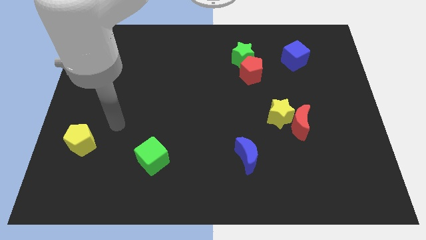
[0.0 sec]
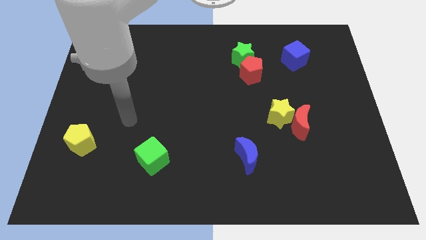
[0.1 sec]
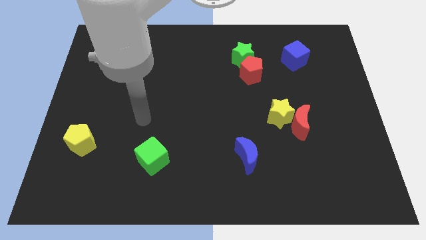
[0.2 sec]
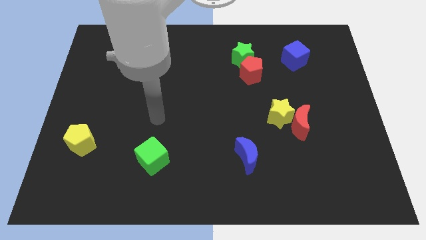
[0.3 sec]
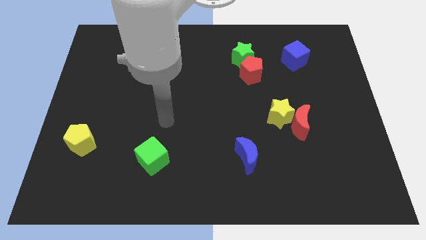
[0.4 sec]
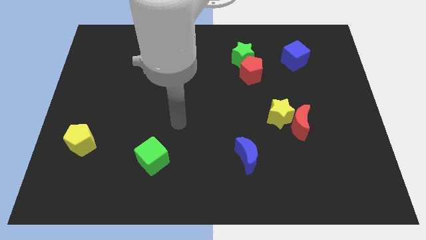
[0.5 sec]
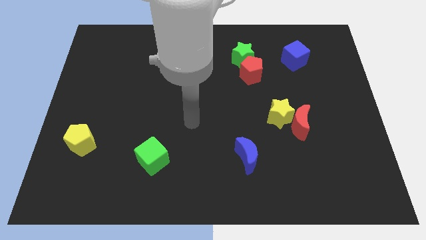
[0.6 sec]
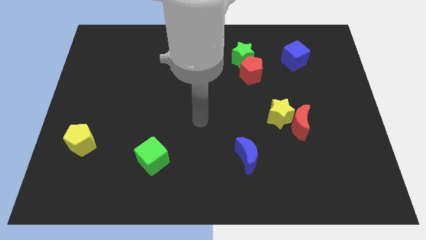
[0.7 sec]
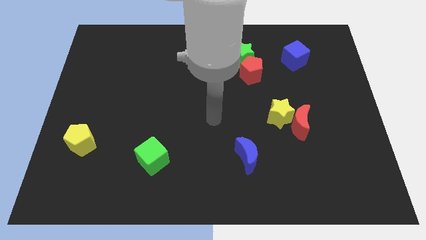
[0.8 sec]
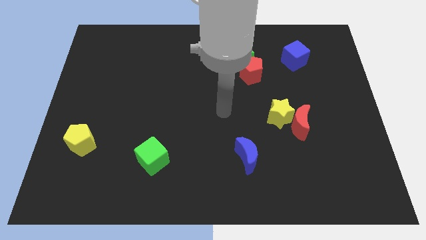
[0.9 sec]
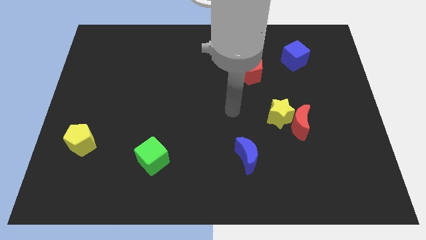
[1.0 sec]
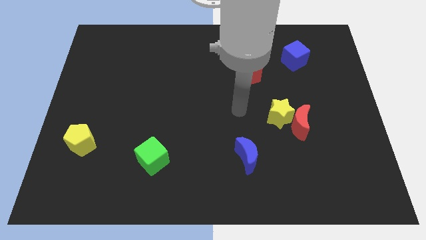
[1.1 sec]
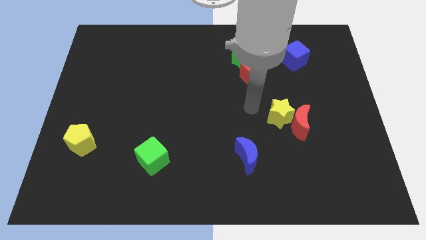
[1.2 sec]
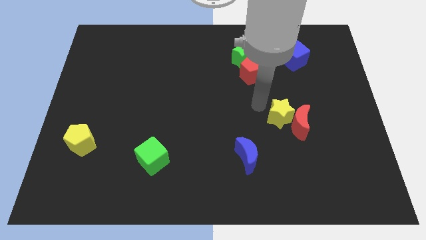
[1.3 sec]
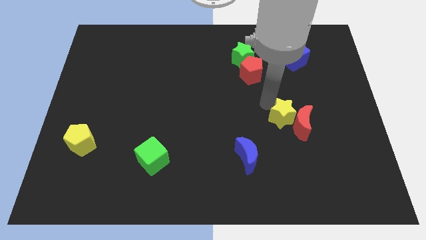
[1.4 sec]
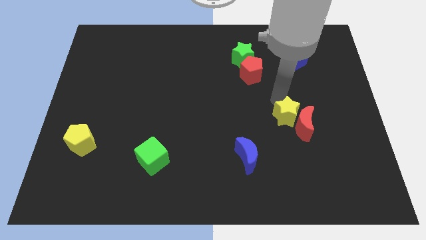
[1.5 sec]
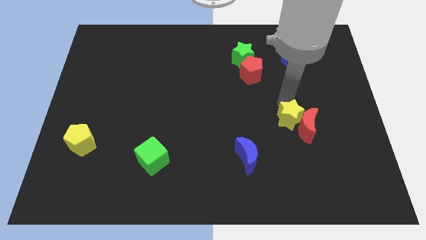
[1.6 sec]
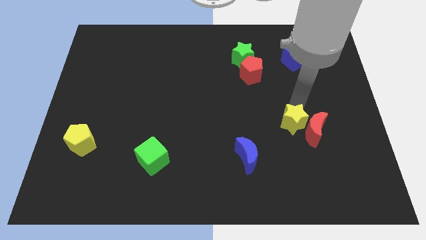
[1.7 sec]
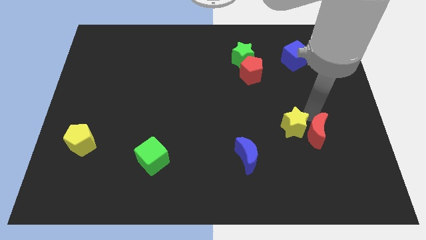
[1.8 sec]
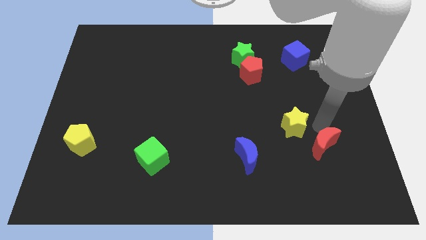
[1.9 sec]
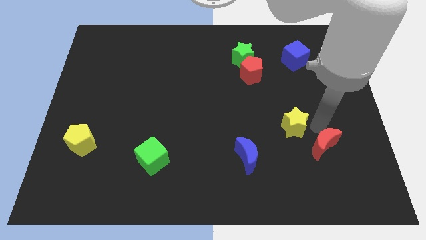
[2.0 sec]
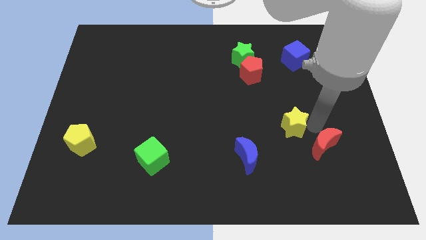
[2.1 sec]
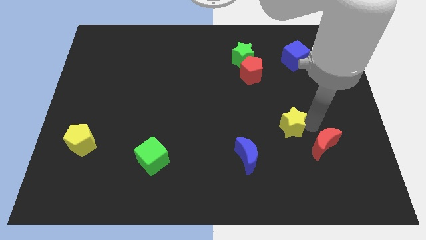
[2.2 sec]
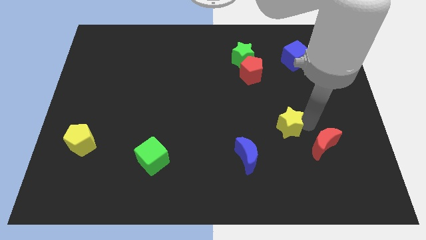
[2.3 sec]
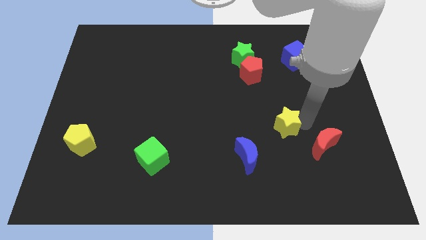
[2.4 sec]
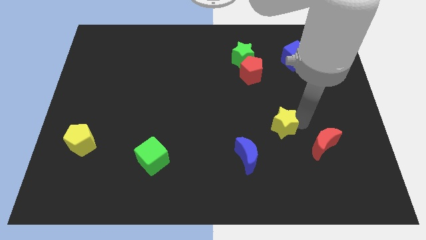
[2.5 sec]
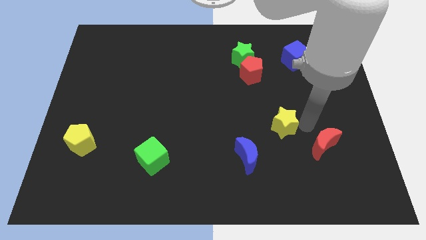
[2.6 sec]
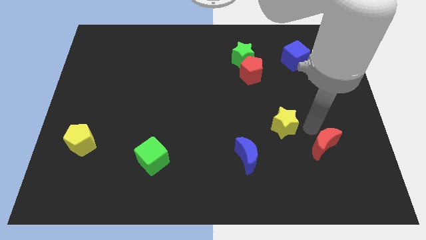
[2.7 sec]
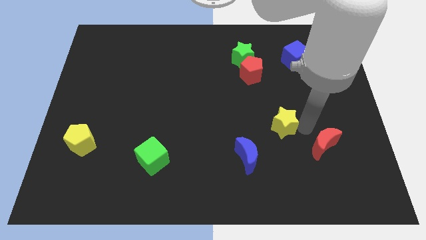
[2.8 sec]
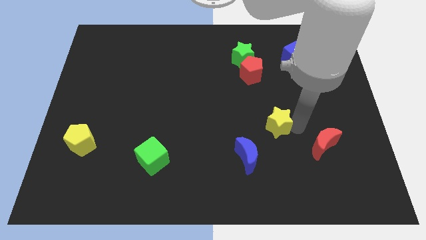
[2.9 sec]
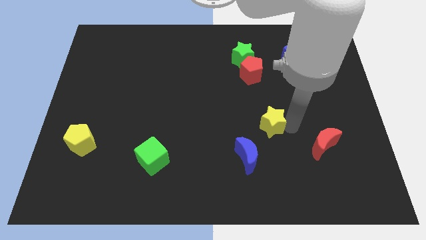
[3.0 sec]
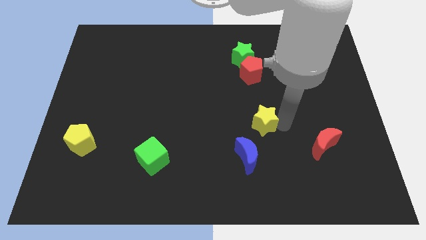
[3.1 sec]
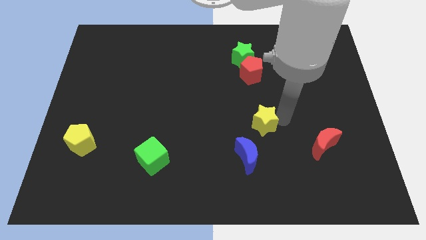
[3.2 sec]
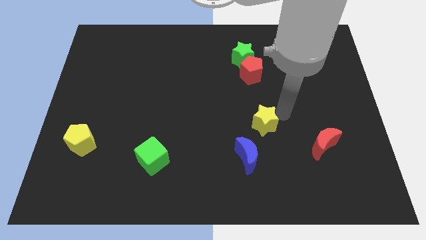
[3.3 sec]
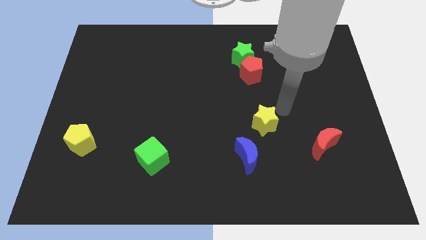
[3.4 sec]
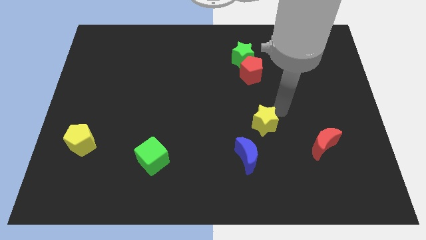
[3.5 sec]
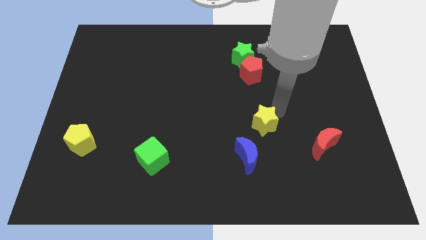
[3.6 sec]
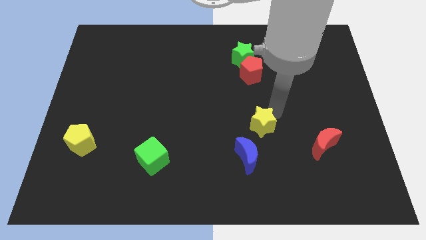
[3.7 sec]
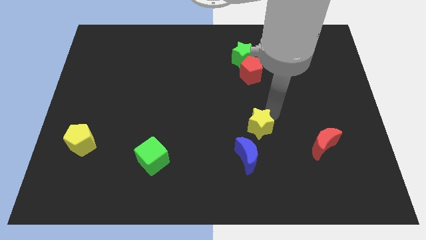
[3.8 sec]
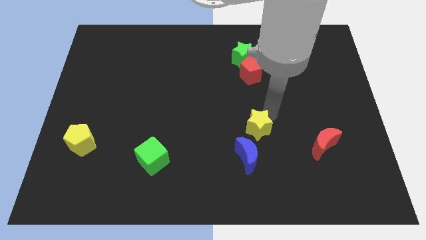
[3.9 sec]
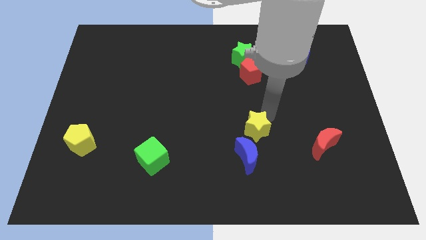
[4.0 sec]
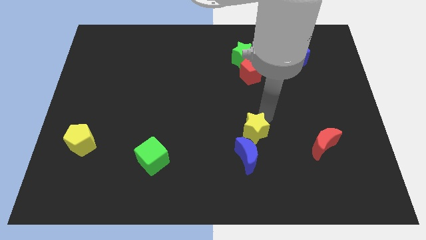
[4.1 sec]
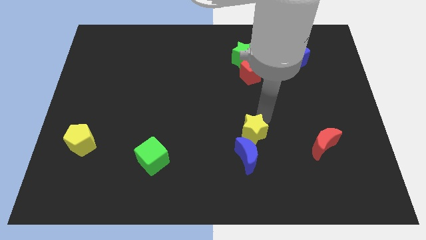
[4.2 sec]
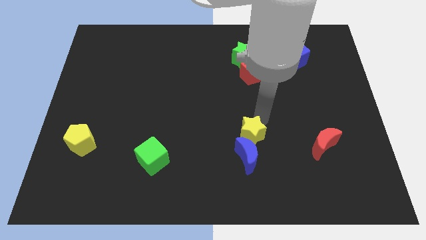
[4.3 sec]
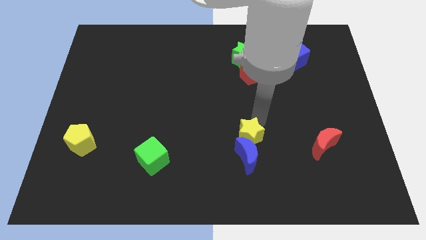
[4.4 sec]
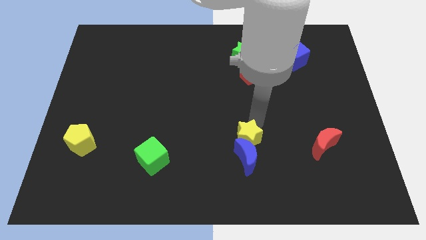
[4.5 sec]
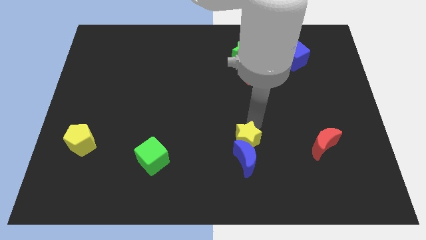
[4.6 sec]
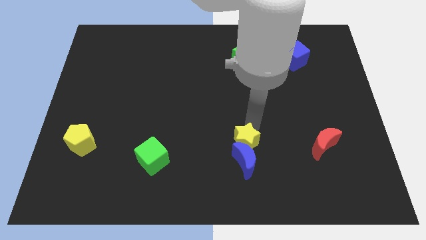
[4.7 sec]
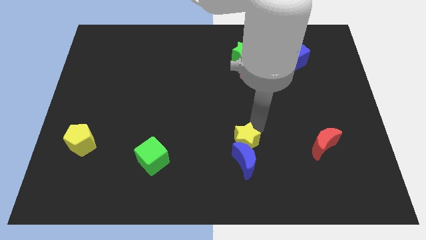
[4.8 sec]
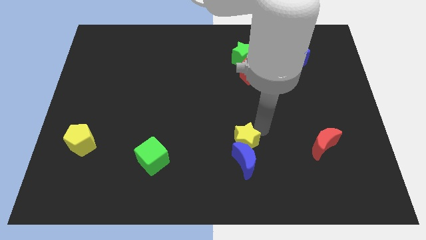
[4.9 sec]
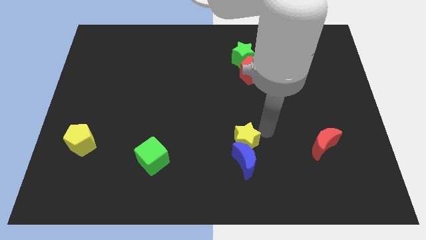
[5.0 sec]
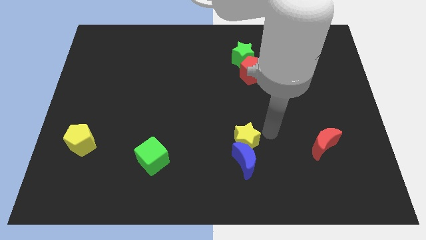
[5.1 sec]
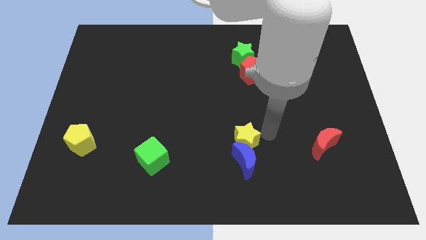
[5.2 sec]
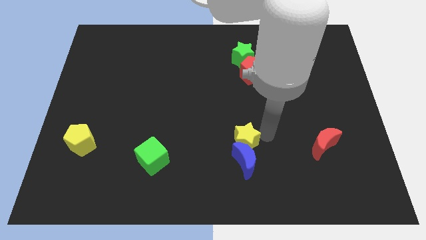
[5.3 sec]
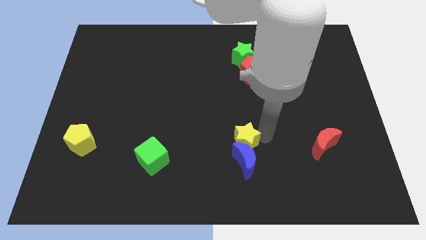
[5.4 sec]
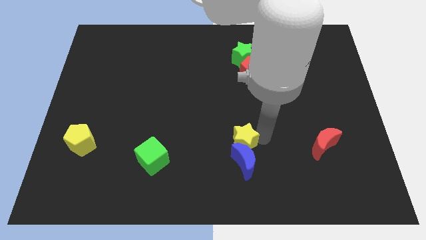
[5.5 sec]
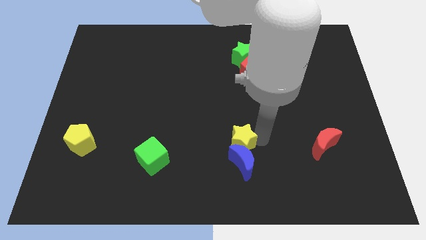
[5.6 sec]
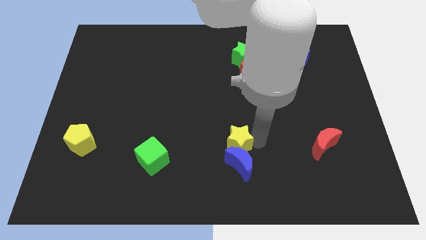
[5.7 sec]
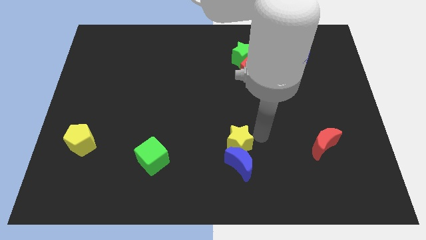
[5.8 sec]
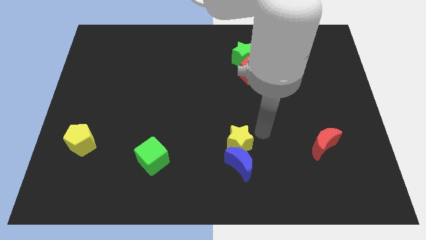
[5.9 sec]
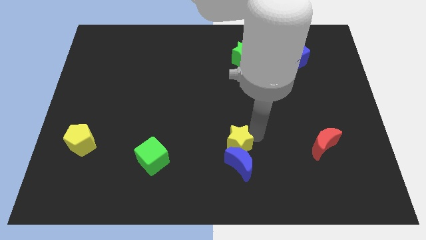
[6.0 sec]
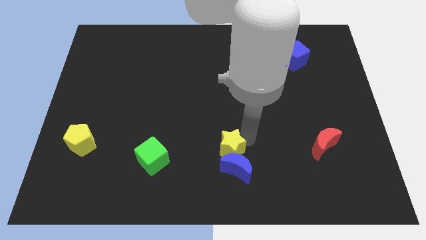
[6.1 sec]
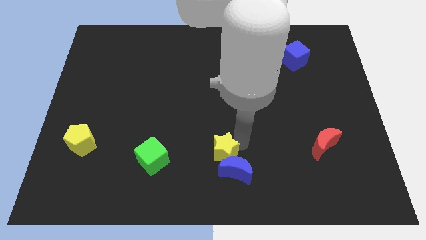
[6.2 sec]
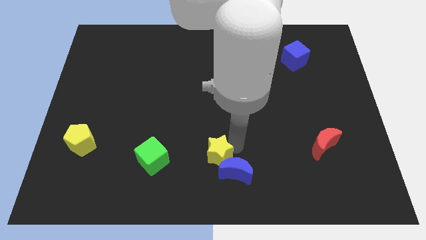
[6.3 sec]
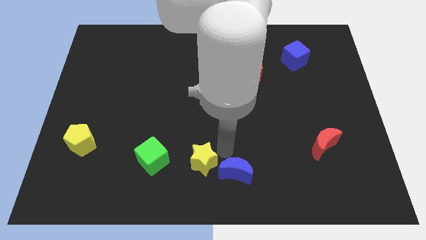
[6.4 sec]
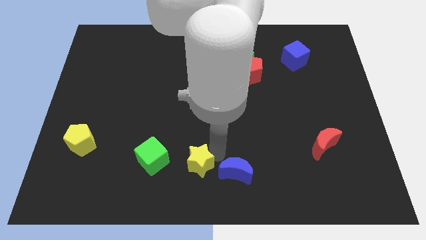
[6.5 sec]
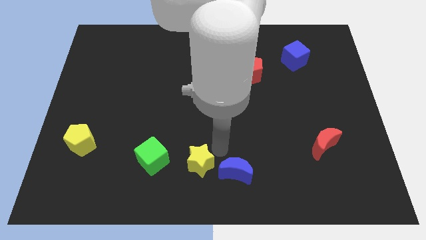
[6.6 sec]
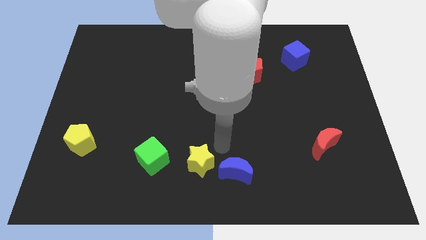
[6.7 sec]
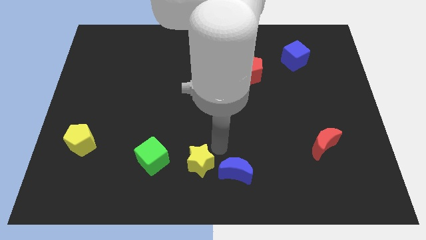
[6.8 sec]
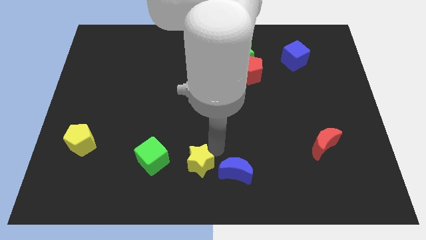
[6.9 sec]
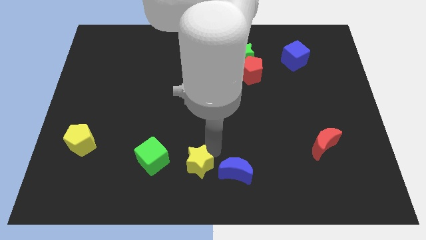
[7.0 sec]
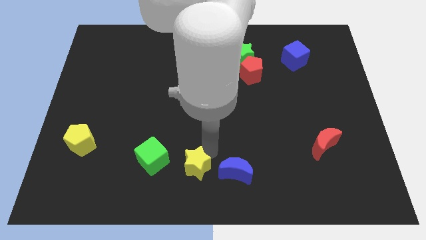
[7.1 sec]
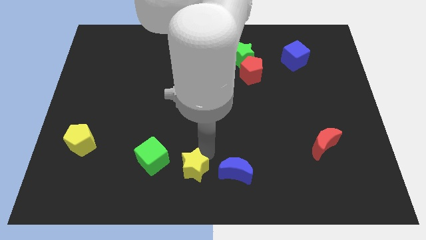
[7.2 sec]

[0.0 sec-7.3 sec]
put the yellow star diagonally down and to the right of the green cube
